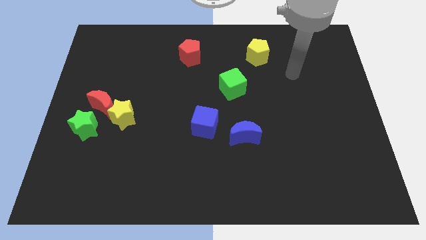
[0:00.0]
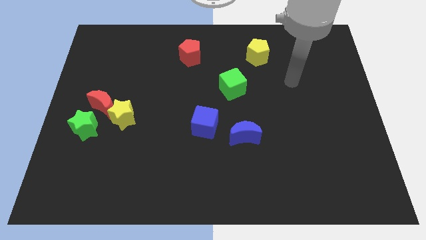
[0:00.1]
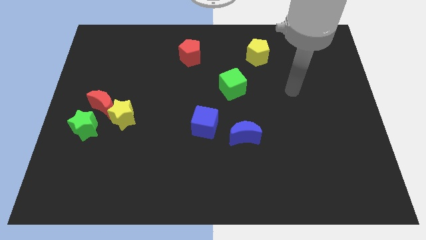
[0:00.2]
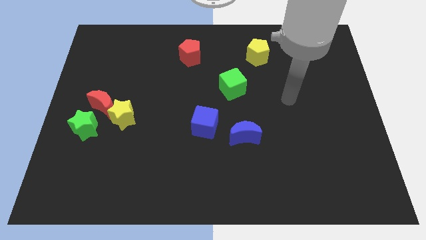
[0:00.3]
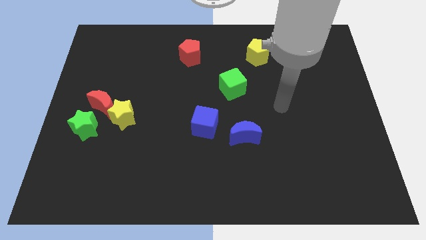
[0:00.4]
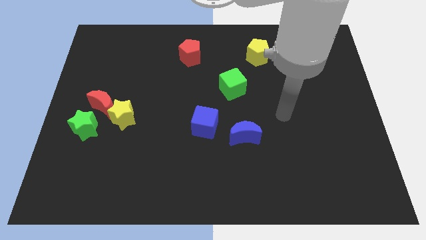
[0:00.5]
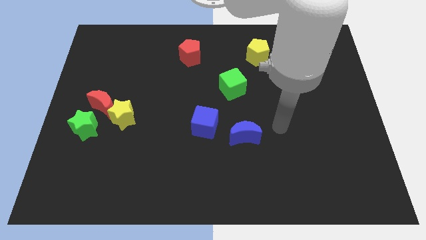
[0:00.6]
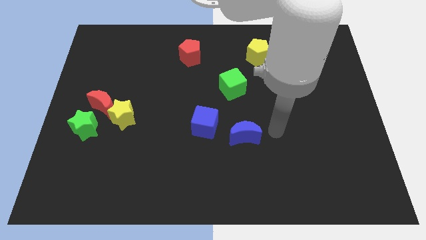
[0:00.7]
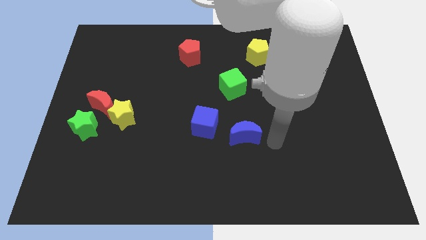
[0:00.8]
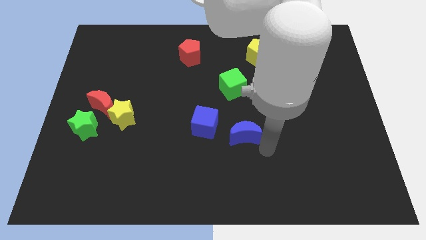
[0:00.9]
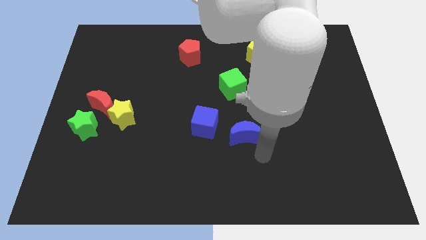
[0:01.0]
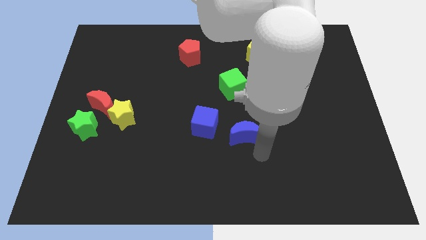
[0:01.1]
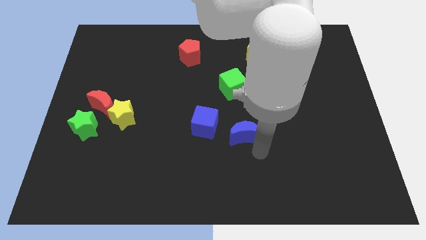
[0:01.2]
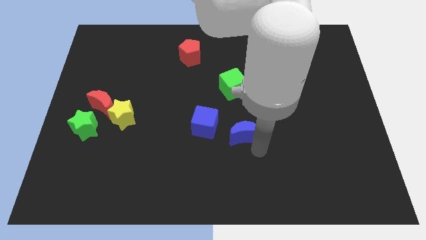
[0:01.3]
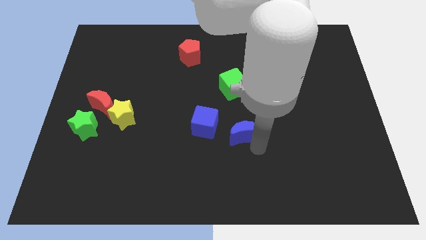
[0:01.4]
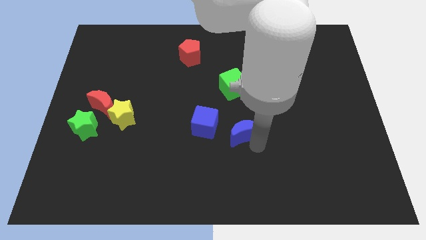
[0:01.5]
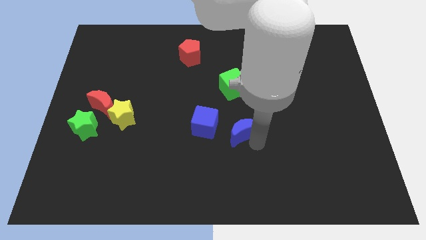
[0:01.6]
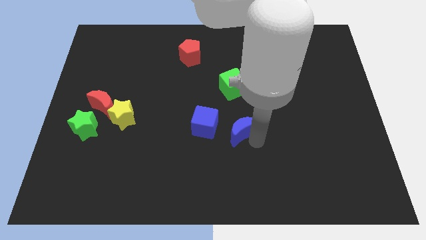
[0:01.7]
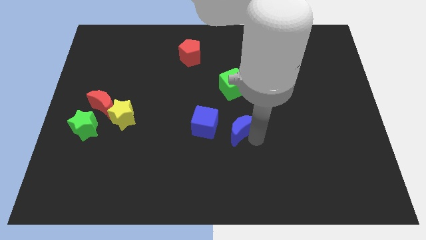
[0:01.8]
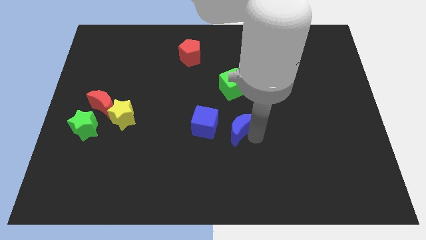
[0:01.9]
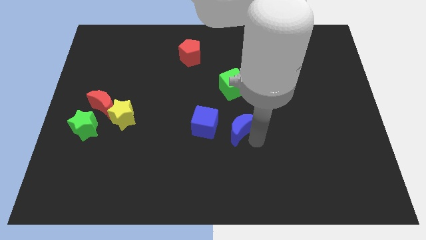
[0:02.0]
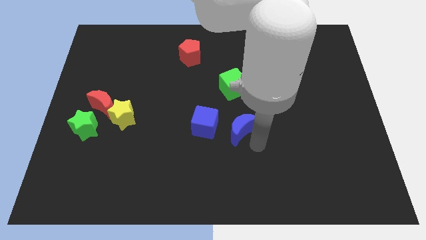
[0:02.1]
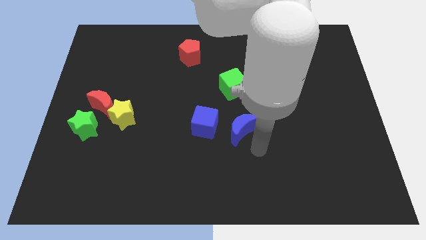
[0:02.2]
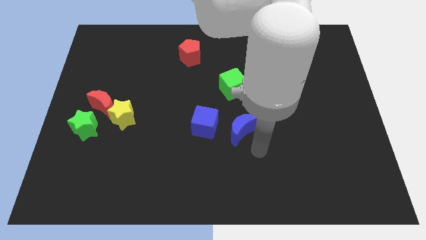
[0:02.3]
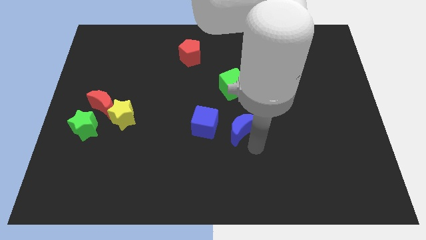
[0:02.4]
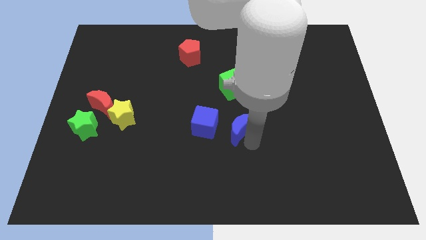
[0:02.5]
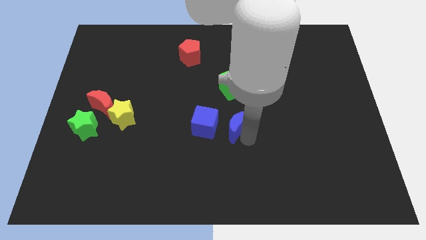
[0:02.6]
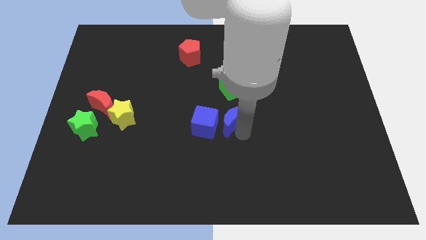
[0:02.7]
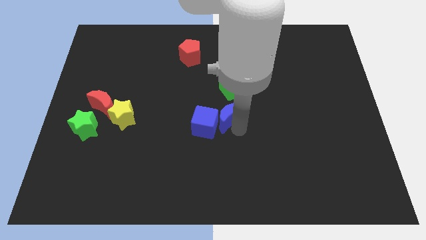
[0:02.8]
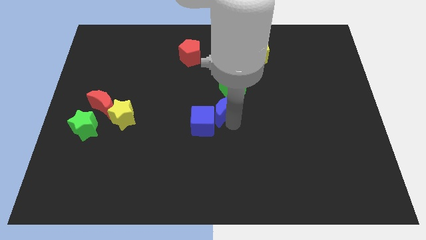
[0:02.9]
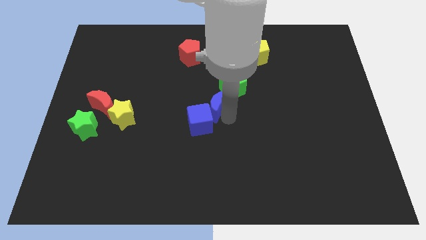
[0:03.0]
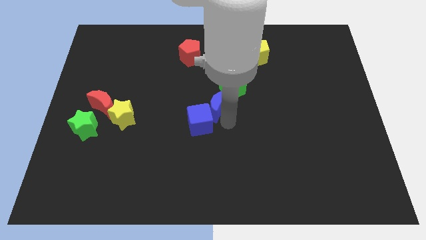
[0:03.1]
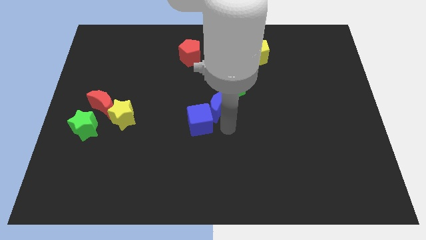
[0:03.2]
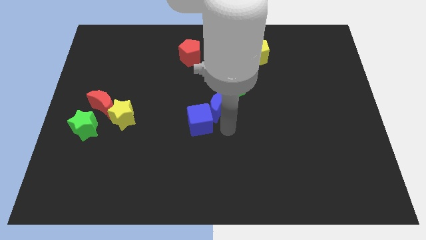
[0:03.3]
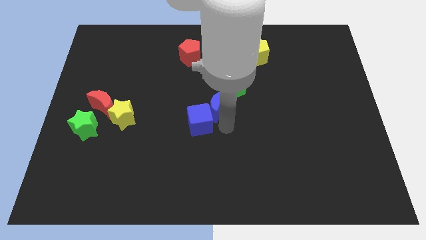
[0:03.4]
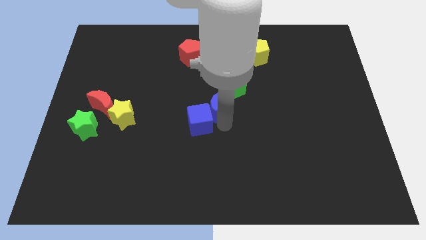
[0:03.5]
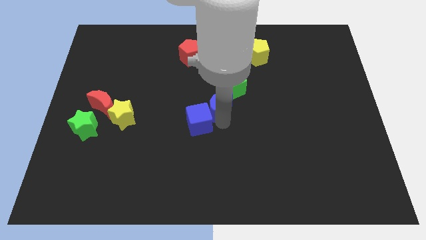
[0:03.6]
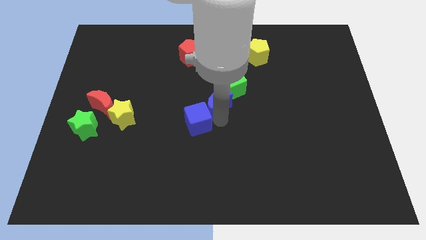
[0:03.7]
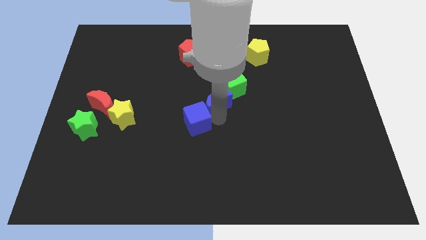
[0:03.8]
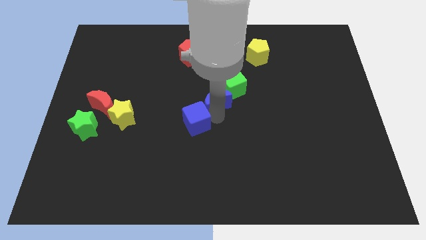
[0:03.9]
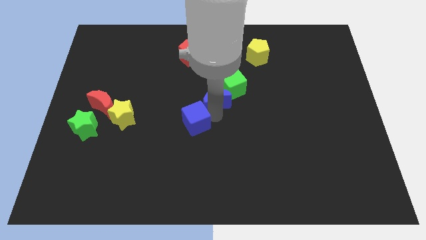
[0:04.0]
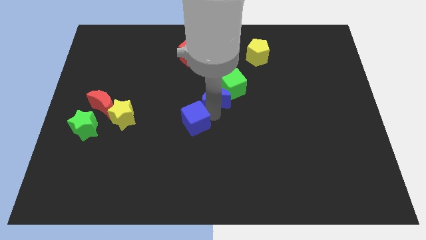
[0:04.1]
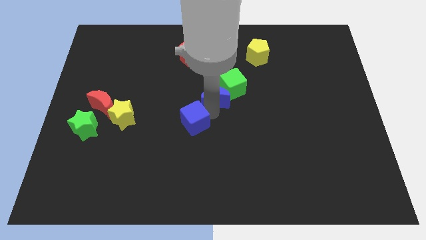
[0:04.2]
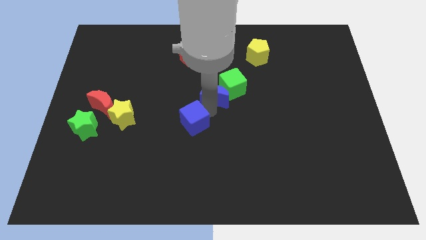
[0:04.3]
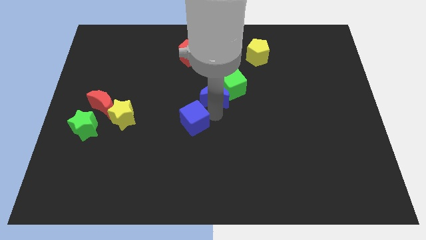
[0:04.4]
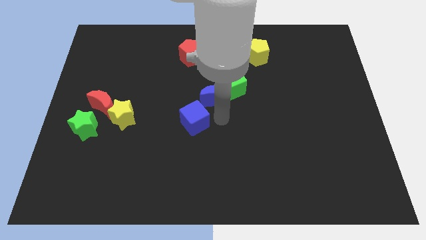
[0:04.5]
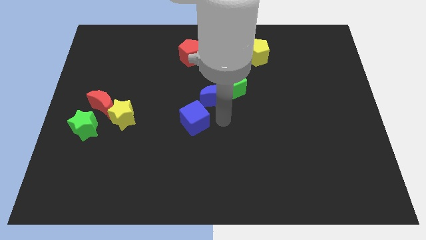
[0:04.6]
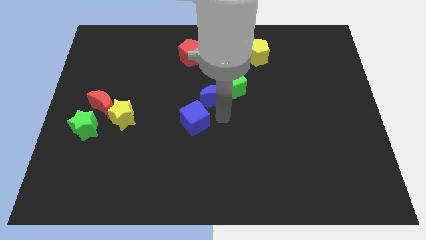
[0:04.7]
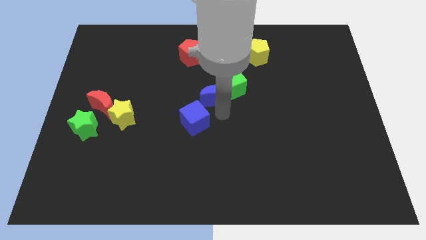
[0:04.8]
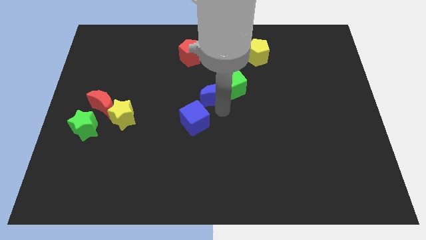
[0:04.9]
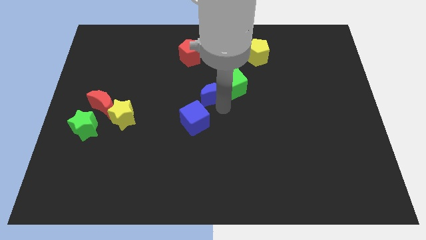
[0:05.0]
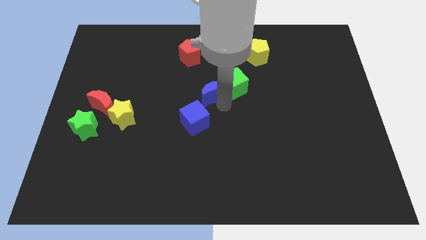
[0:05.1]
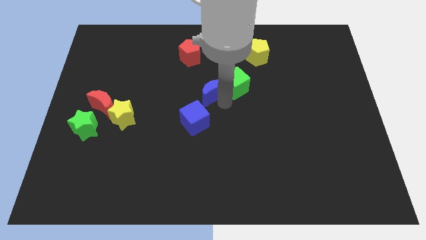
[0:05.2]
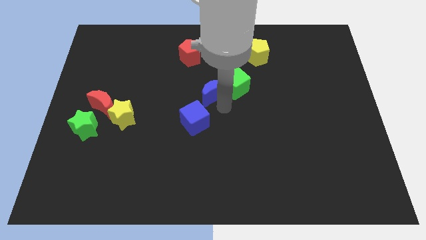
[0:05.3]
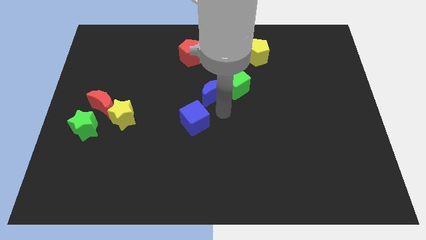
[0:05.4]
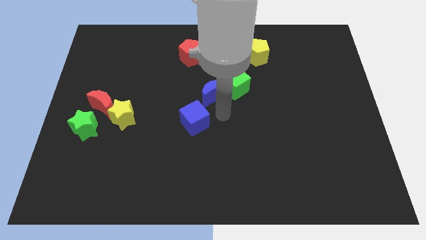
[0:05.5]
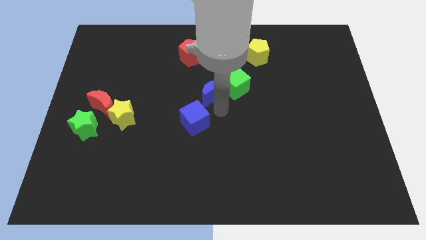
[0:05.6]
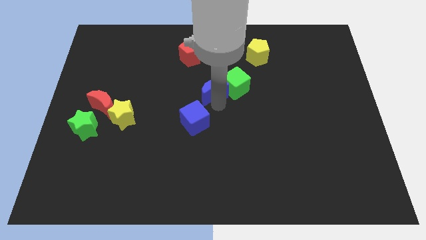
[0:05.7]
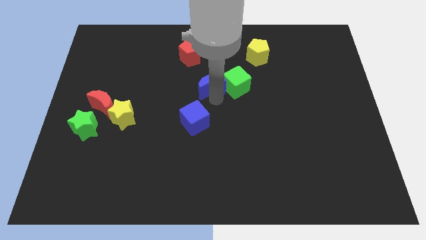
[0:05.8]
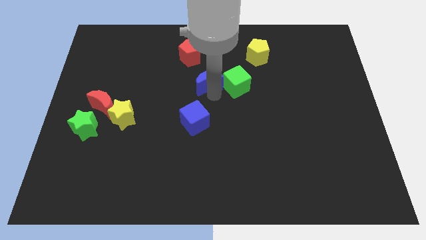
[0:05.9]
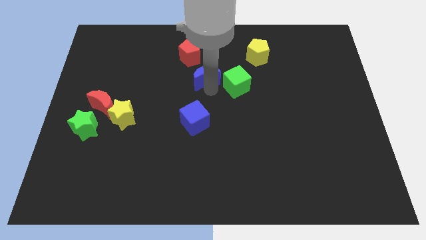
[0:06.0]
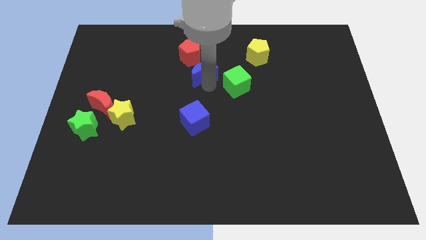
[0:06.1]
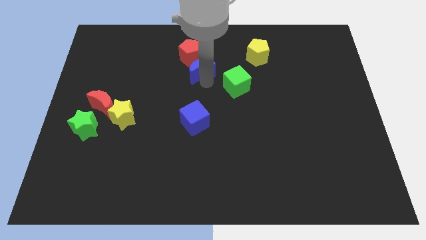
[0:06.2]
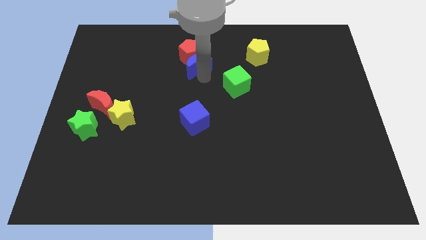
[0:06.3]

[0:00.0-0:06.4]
move the blue moon close to the red pentagon

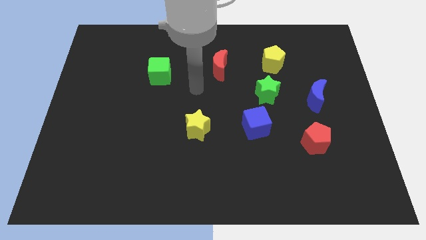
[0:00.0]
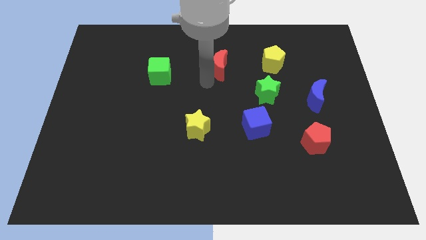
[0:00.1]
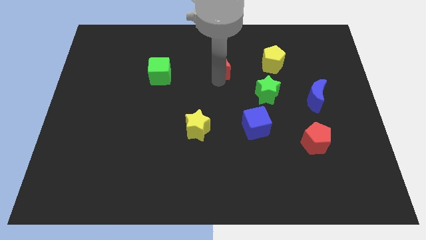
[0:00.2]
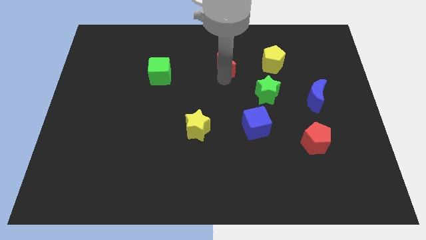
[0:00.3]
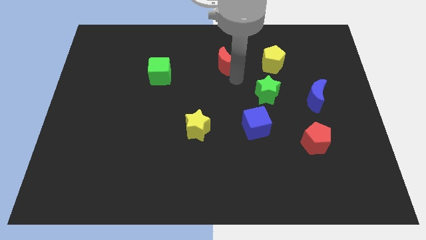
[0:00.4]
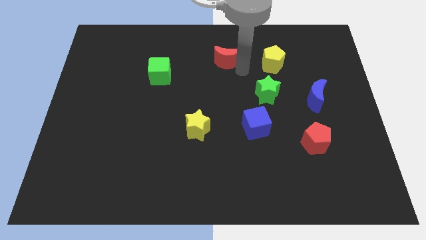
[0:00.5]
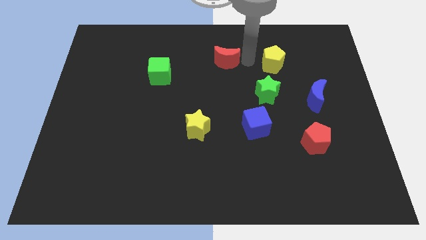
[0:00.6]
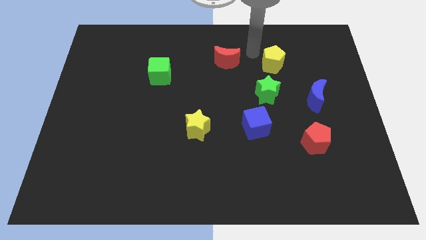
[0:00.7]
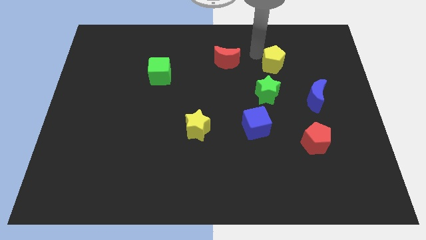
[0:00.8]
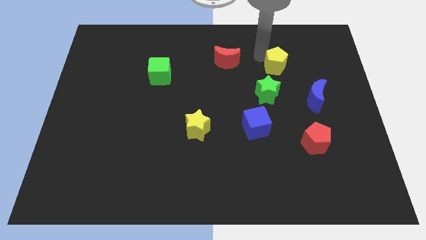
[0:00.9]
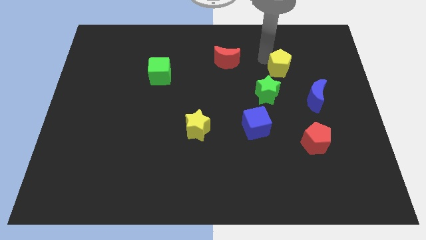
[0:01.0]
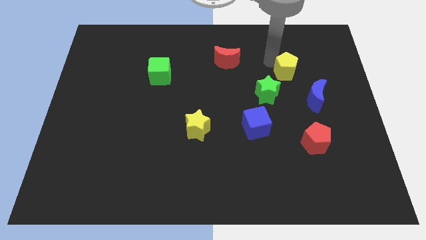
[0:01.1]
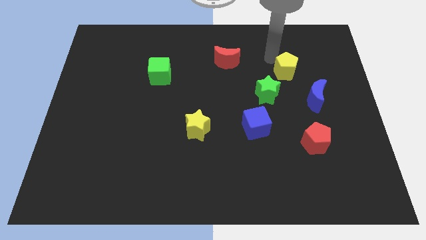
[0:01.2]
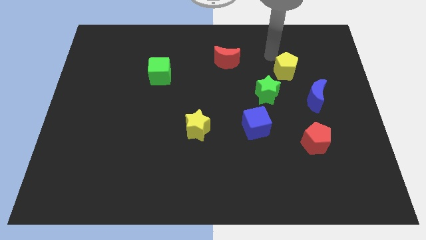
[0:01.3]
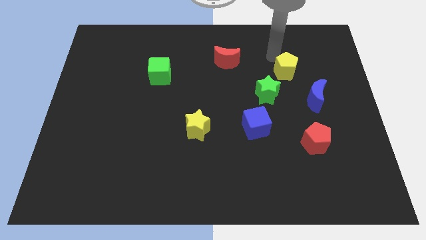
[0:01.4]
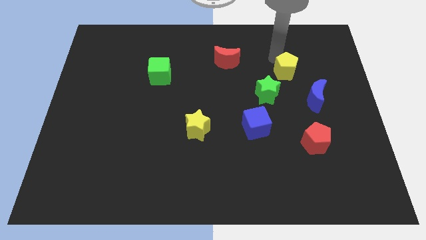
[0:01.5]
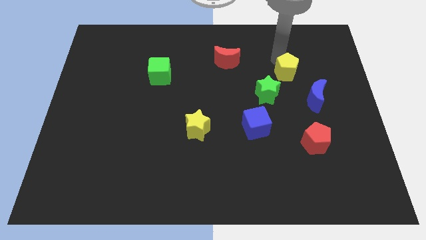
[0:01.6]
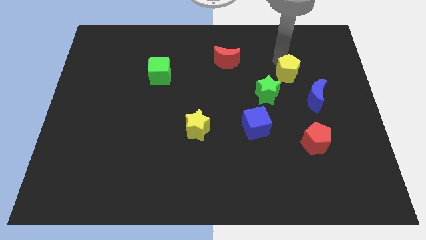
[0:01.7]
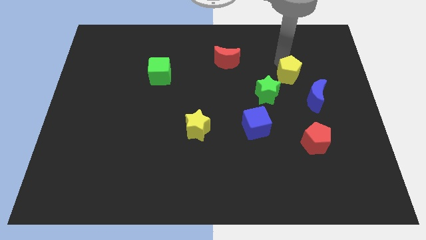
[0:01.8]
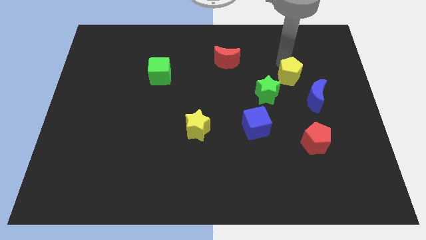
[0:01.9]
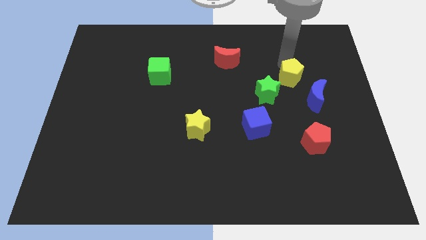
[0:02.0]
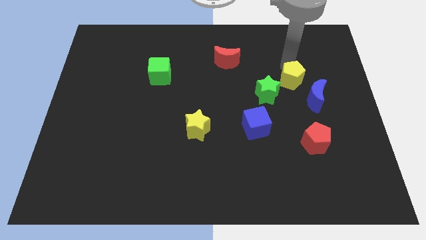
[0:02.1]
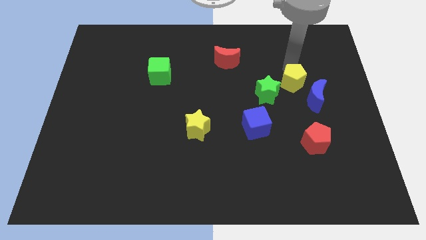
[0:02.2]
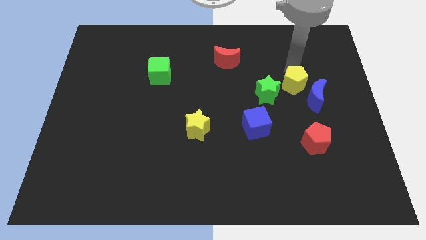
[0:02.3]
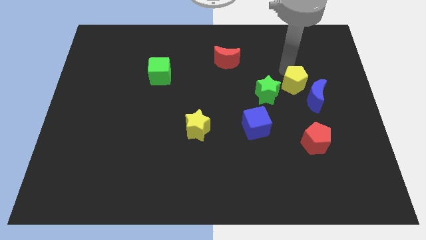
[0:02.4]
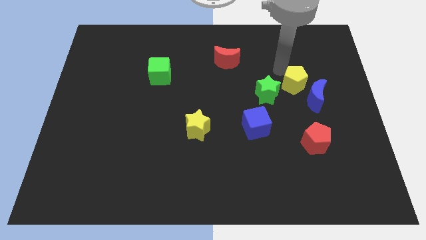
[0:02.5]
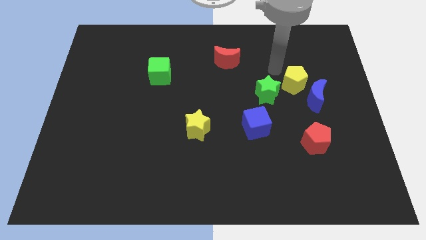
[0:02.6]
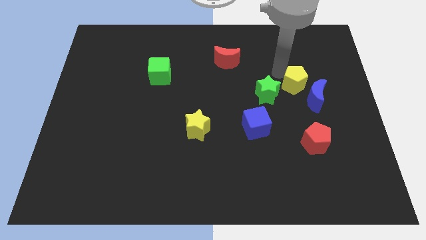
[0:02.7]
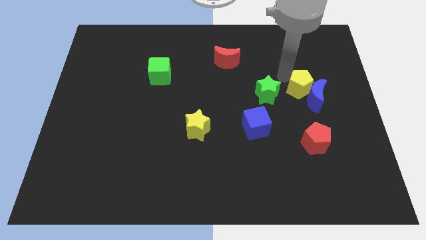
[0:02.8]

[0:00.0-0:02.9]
push the yellow pentagon towards the blue moon
